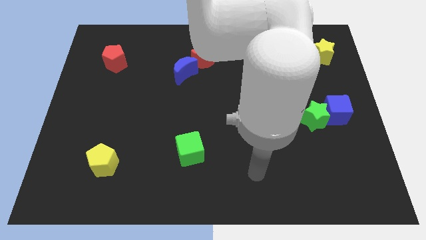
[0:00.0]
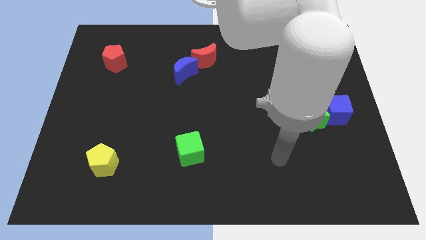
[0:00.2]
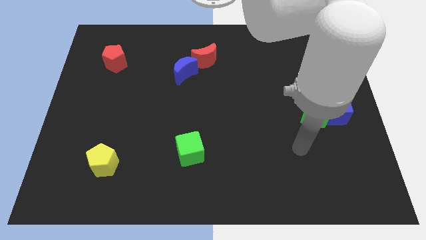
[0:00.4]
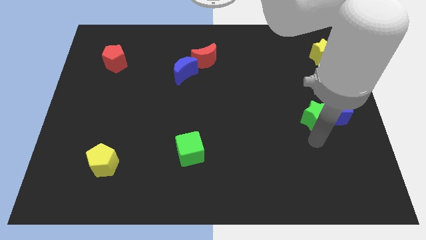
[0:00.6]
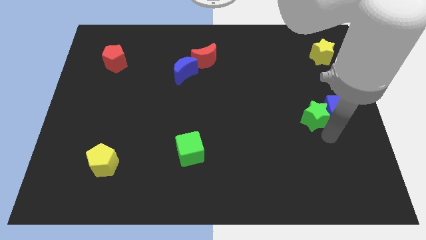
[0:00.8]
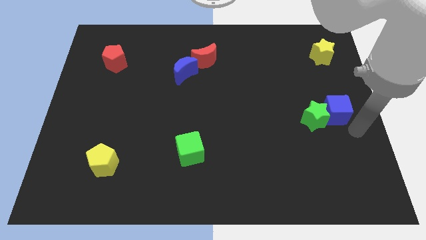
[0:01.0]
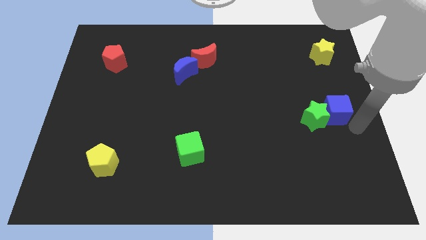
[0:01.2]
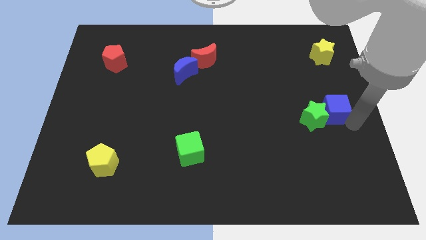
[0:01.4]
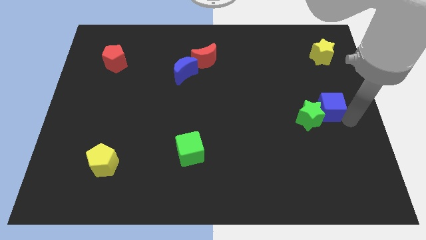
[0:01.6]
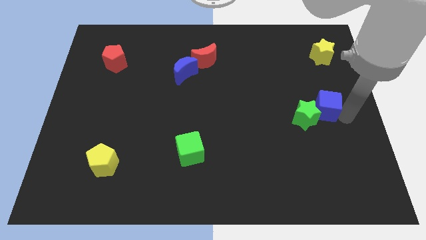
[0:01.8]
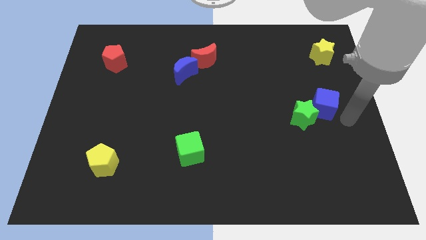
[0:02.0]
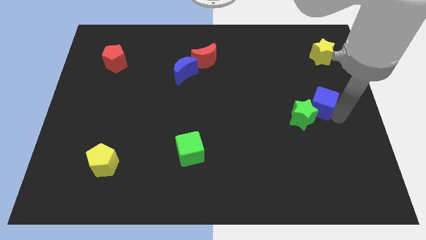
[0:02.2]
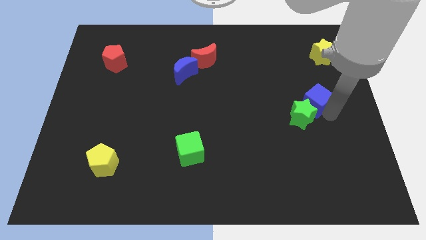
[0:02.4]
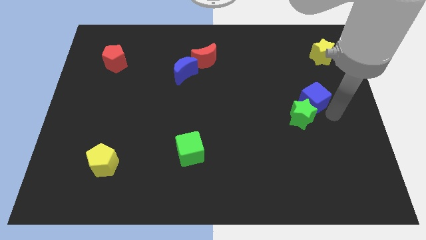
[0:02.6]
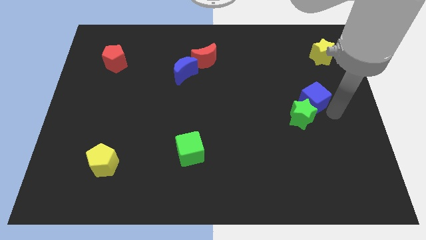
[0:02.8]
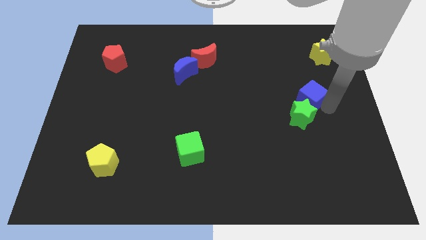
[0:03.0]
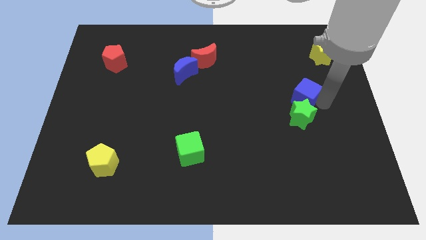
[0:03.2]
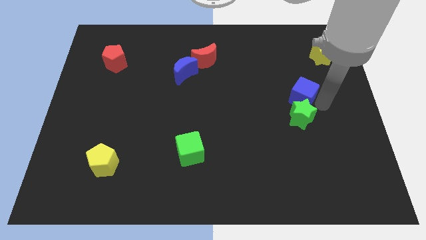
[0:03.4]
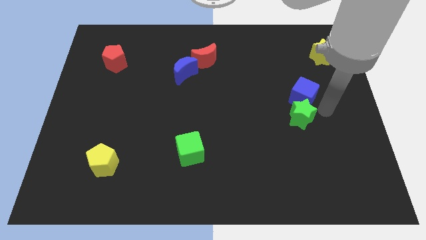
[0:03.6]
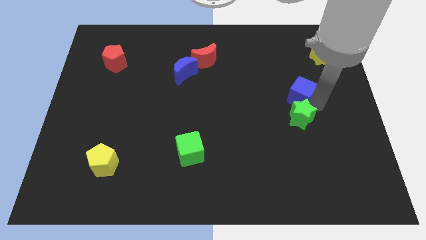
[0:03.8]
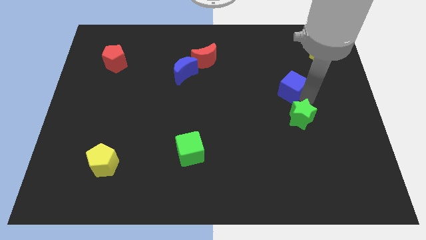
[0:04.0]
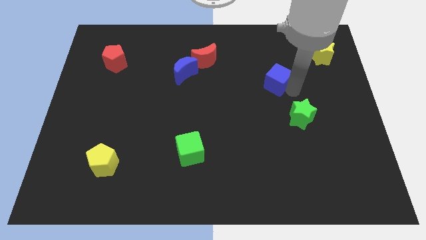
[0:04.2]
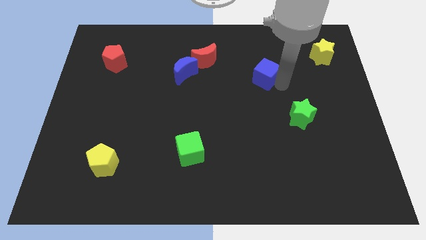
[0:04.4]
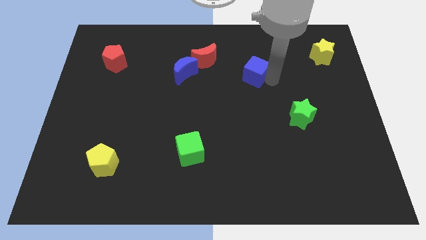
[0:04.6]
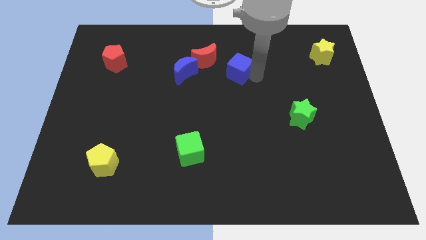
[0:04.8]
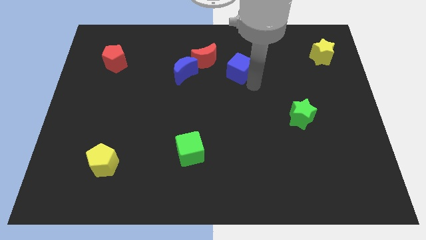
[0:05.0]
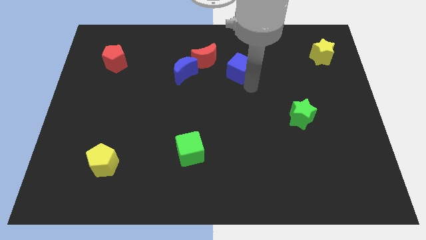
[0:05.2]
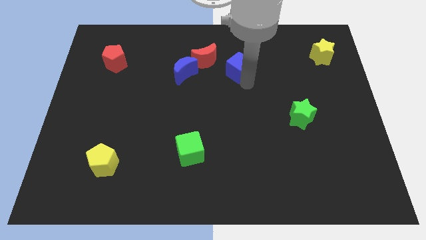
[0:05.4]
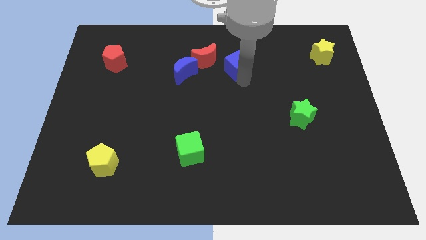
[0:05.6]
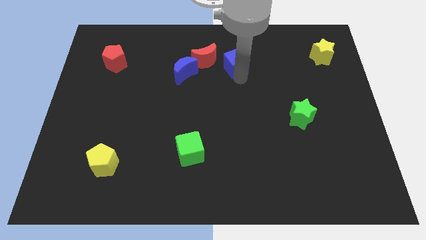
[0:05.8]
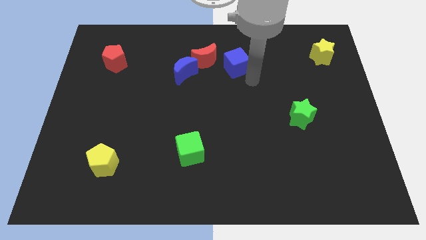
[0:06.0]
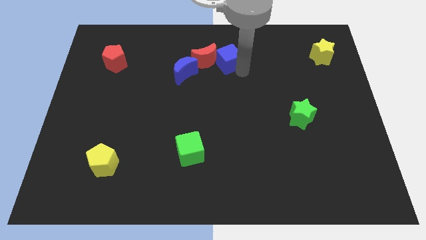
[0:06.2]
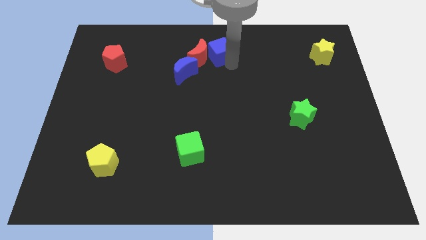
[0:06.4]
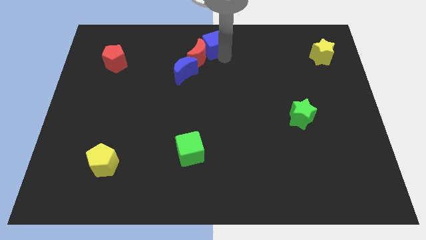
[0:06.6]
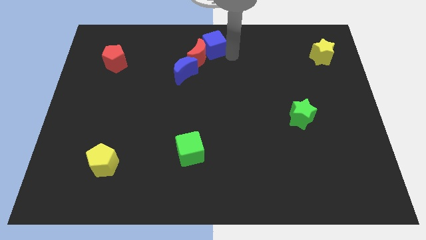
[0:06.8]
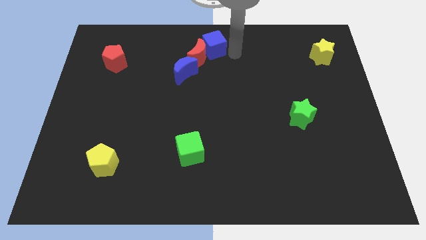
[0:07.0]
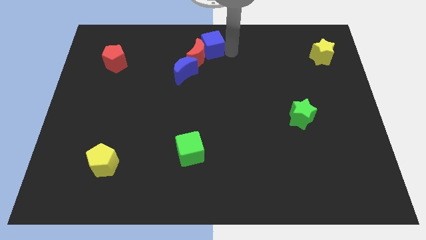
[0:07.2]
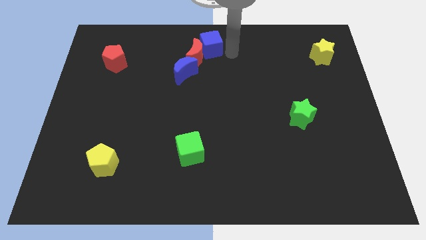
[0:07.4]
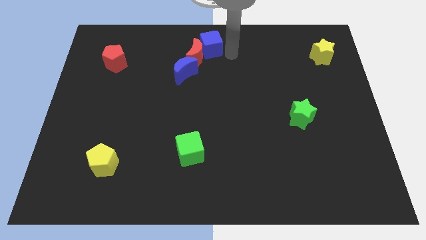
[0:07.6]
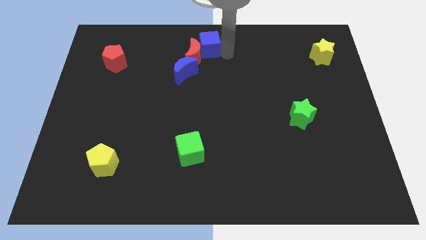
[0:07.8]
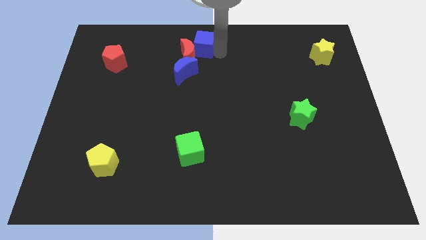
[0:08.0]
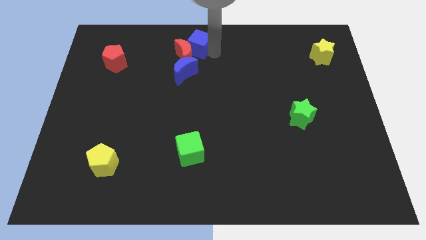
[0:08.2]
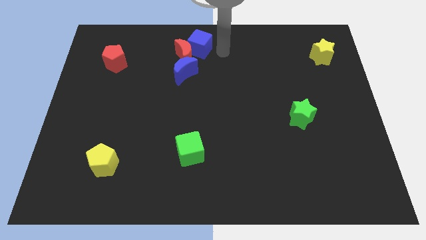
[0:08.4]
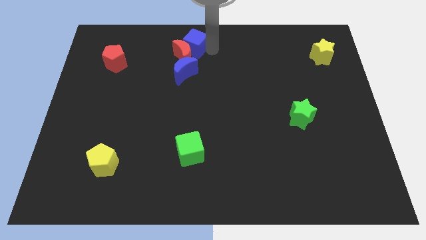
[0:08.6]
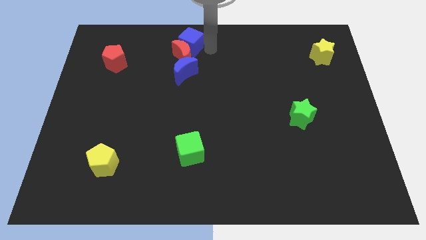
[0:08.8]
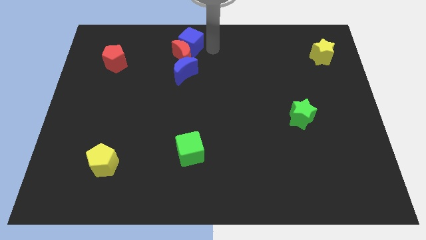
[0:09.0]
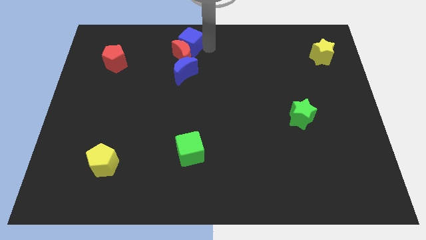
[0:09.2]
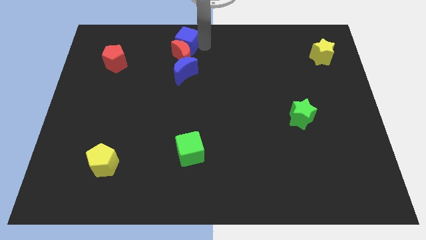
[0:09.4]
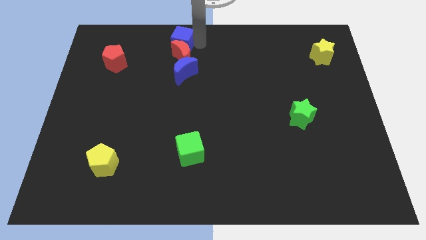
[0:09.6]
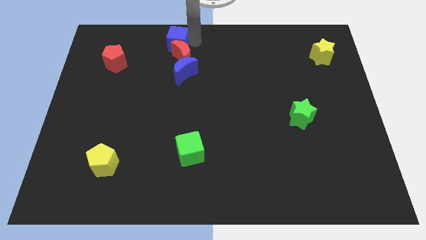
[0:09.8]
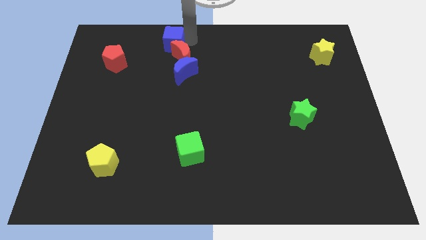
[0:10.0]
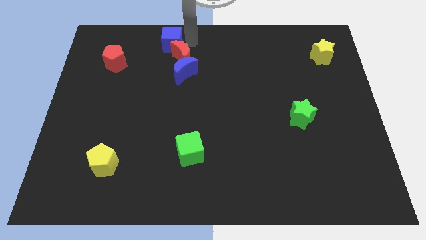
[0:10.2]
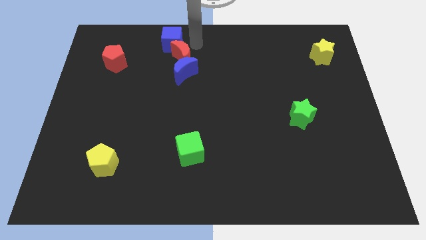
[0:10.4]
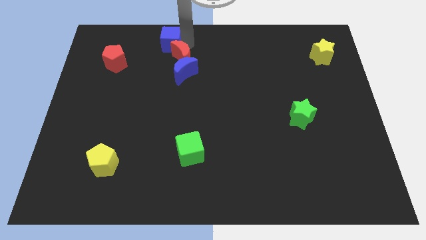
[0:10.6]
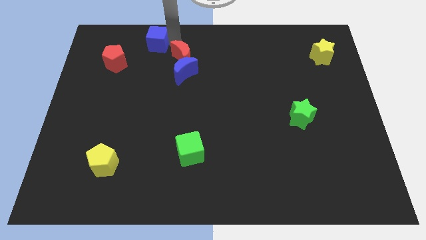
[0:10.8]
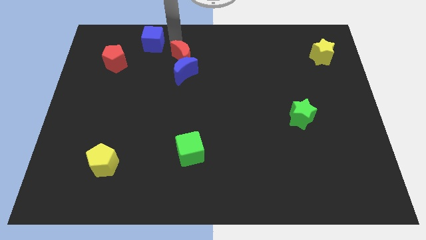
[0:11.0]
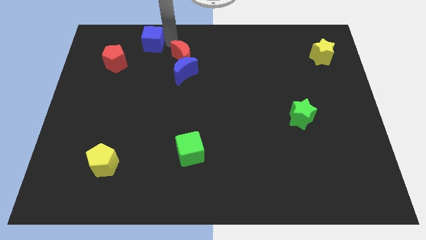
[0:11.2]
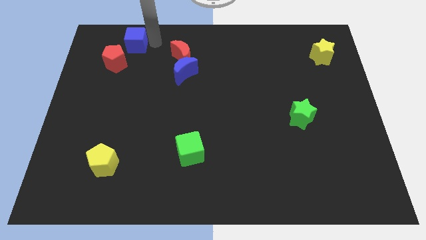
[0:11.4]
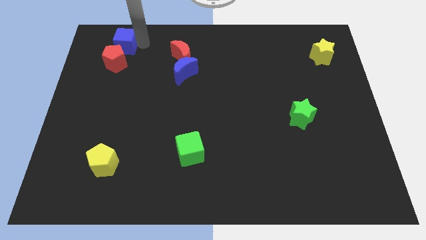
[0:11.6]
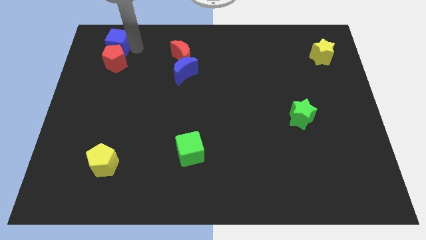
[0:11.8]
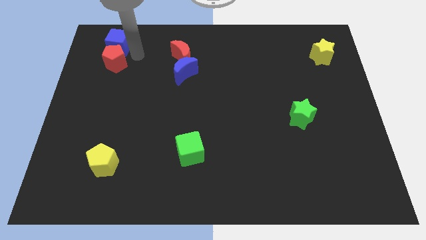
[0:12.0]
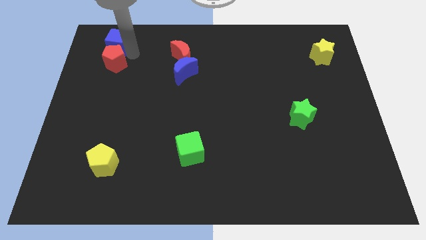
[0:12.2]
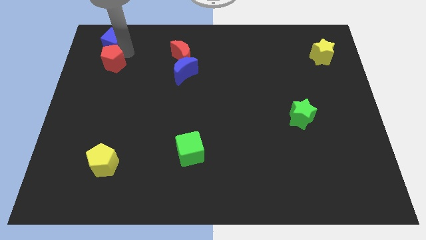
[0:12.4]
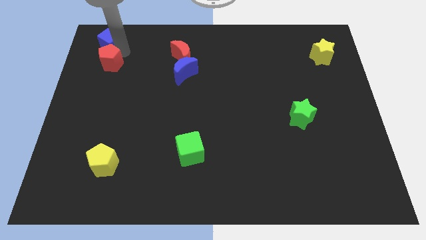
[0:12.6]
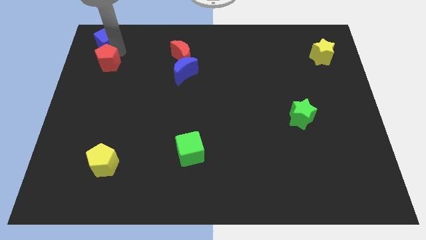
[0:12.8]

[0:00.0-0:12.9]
push the blue cube to the top left
